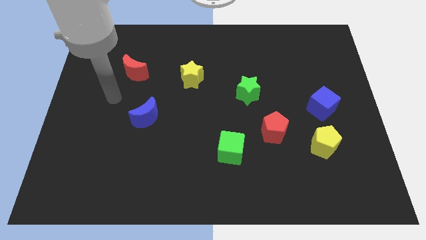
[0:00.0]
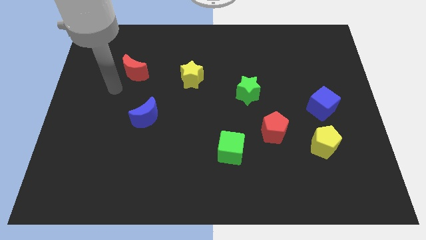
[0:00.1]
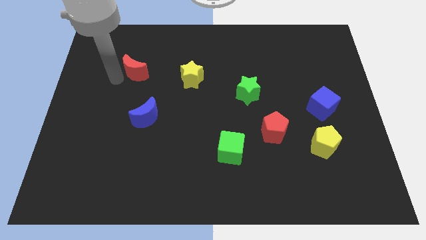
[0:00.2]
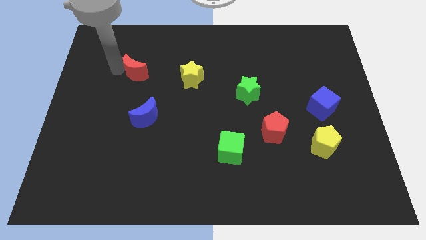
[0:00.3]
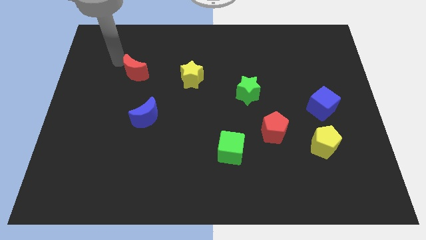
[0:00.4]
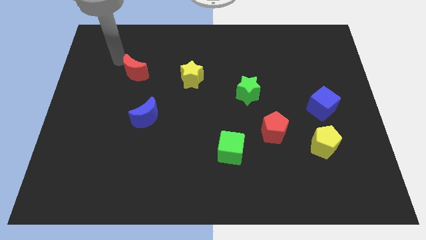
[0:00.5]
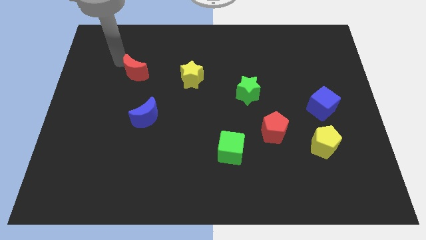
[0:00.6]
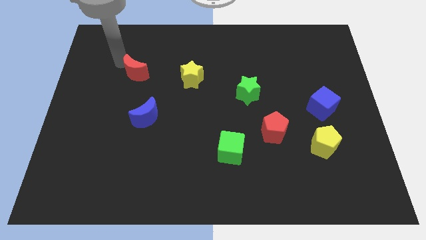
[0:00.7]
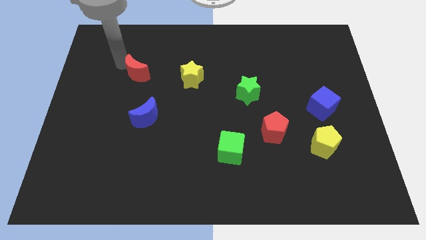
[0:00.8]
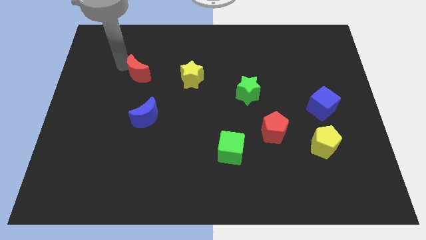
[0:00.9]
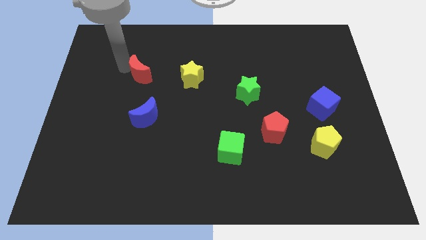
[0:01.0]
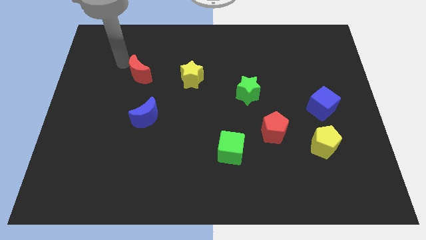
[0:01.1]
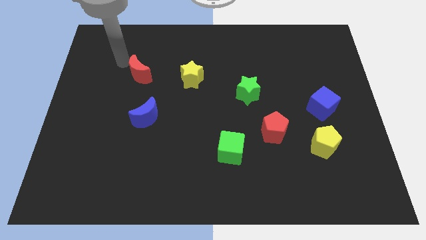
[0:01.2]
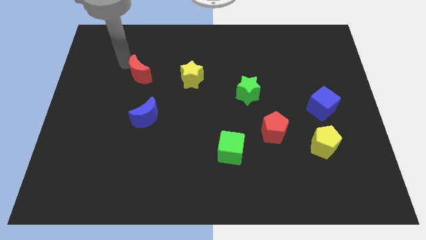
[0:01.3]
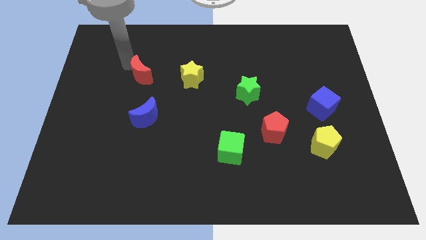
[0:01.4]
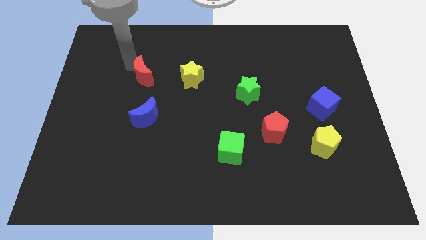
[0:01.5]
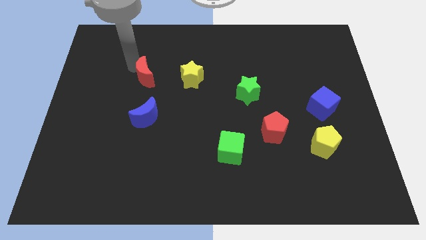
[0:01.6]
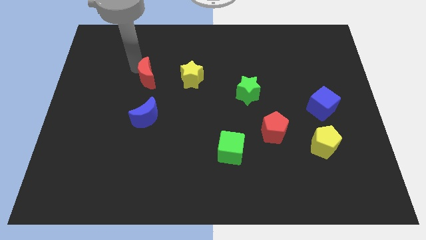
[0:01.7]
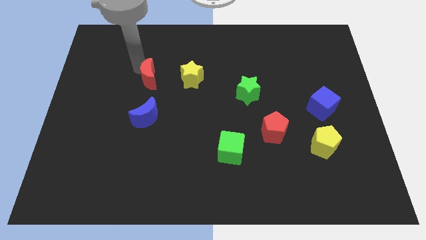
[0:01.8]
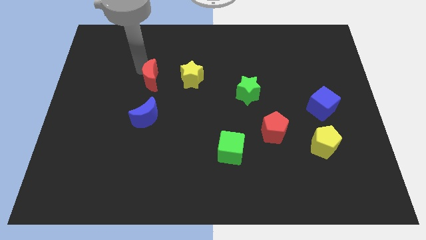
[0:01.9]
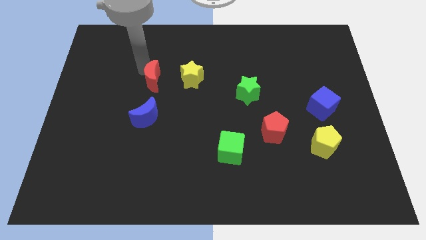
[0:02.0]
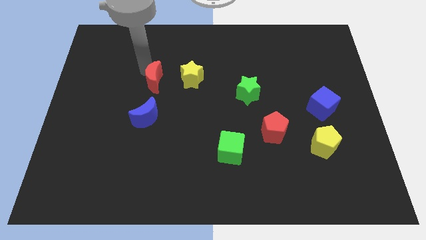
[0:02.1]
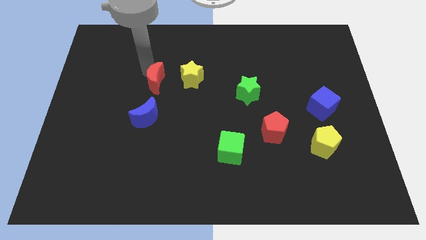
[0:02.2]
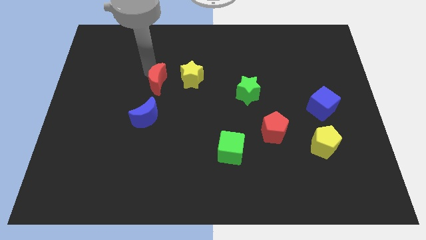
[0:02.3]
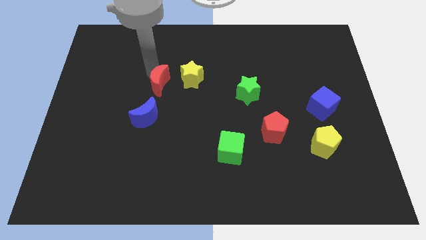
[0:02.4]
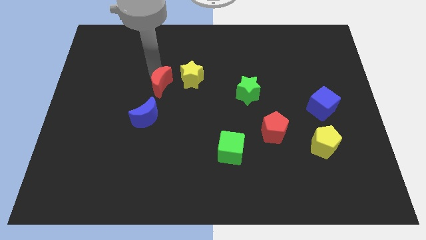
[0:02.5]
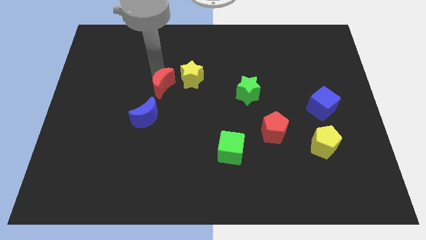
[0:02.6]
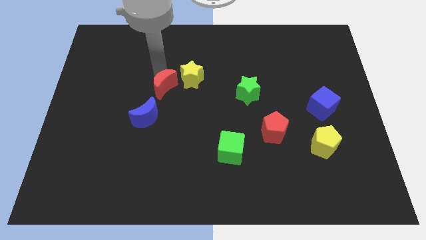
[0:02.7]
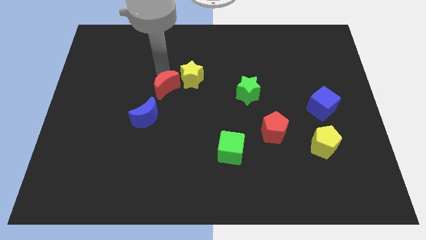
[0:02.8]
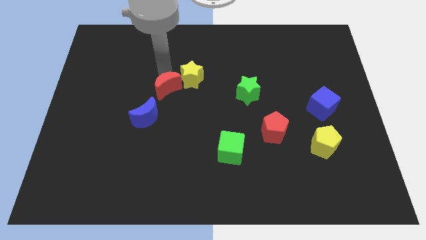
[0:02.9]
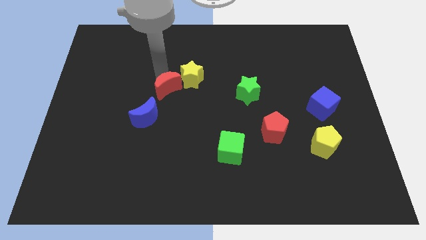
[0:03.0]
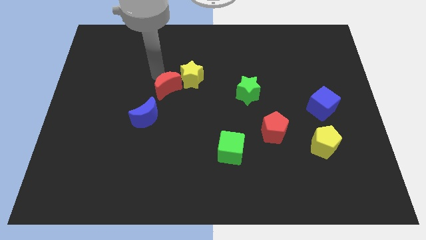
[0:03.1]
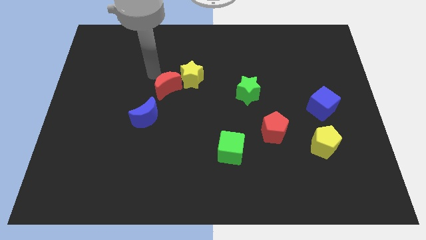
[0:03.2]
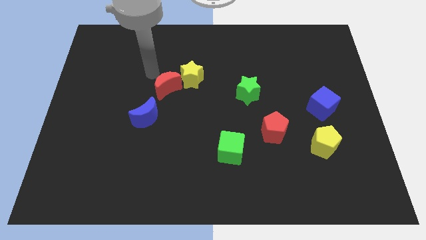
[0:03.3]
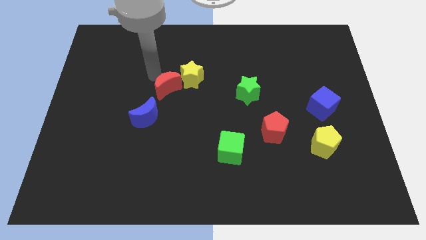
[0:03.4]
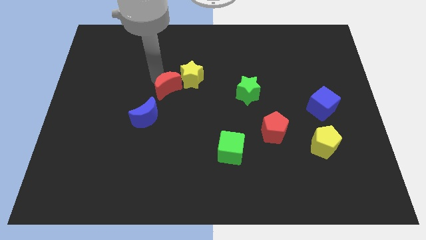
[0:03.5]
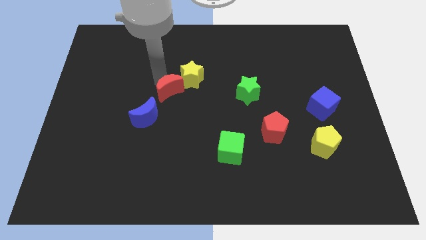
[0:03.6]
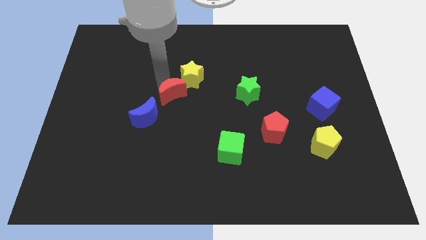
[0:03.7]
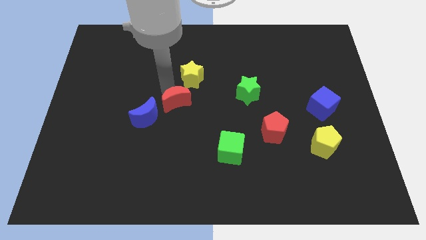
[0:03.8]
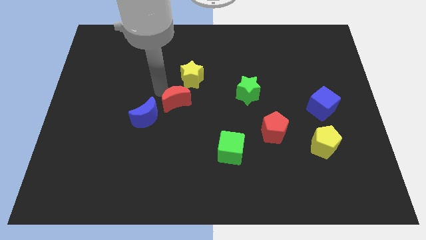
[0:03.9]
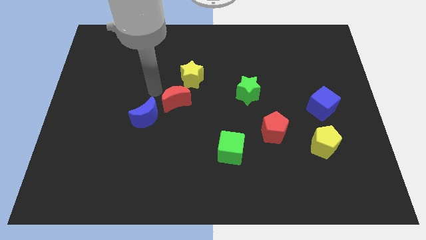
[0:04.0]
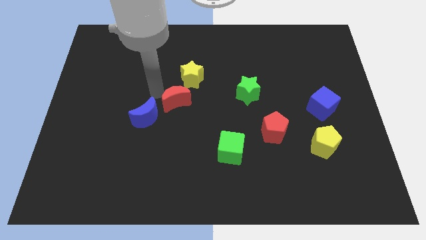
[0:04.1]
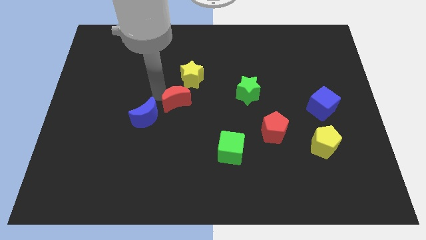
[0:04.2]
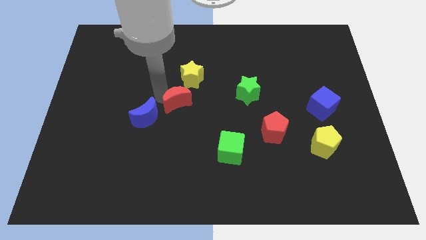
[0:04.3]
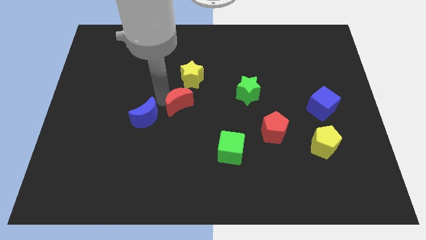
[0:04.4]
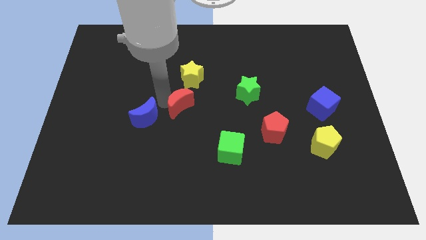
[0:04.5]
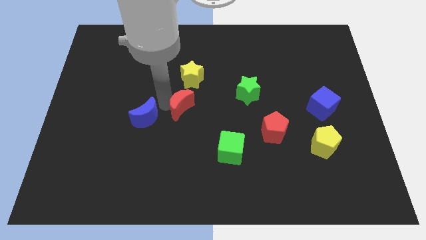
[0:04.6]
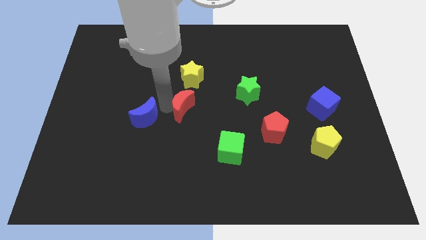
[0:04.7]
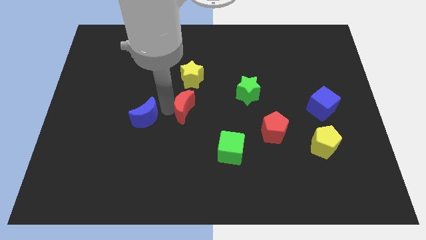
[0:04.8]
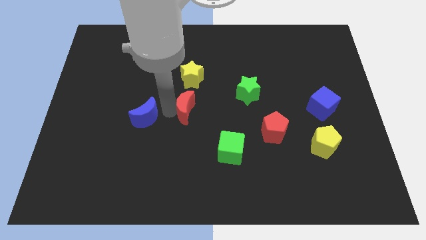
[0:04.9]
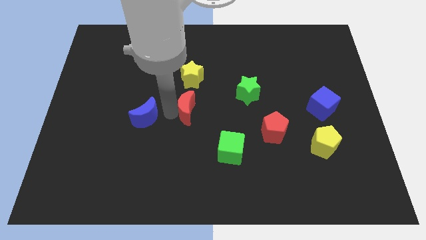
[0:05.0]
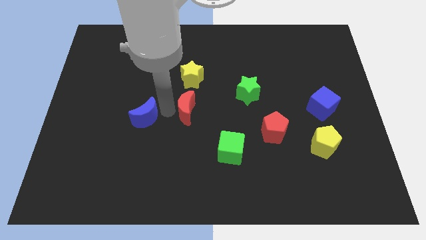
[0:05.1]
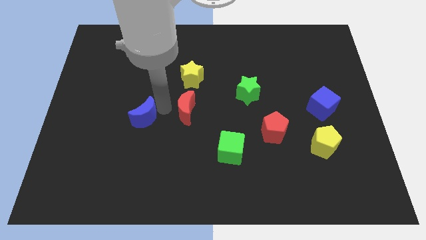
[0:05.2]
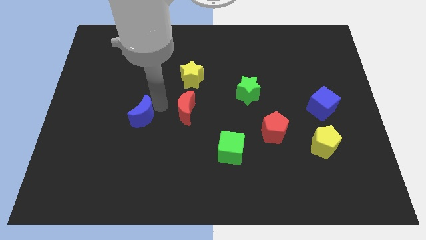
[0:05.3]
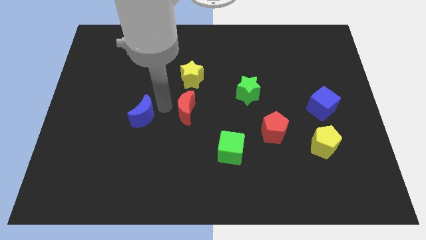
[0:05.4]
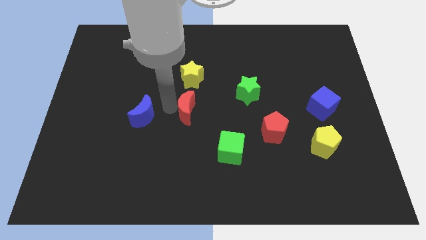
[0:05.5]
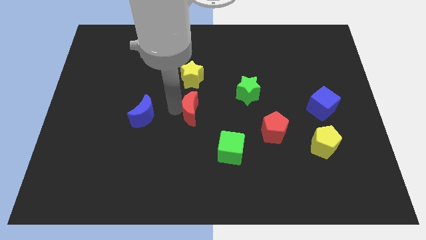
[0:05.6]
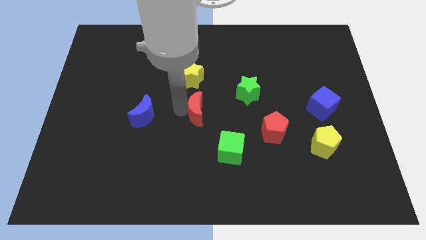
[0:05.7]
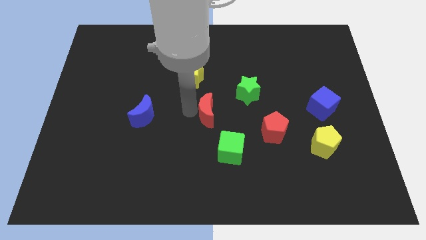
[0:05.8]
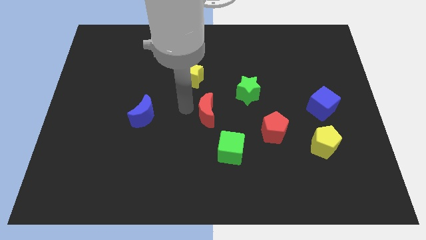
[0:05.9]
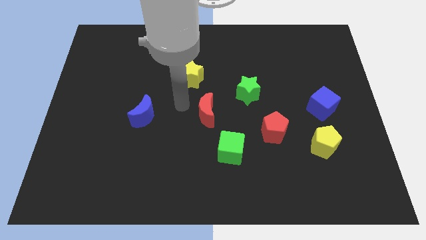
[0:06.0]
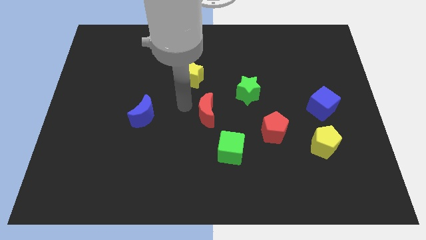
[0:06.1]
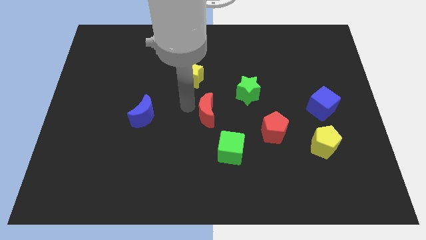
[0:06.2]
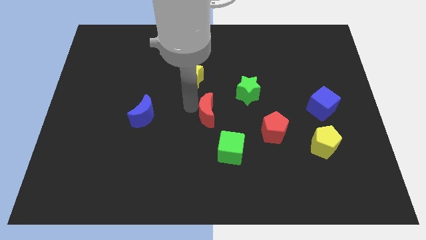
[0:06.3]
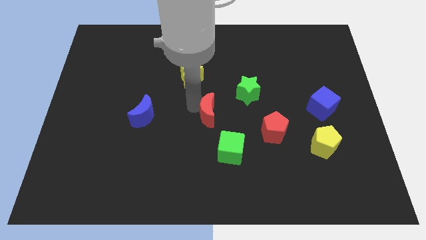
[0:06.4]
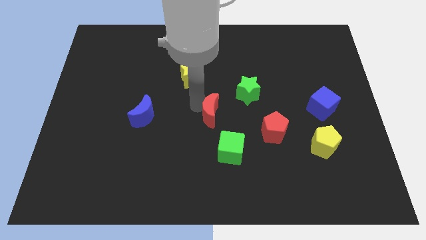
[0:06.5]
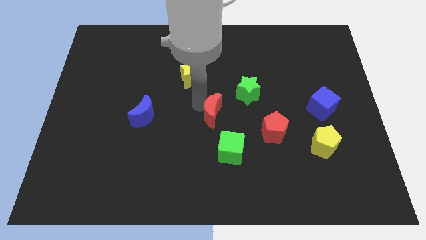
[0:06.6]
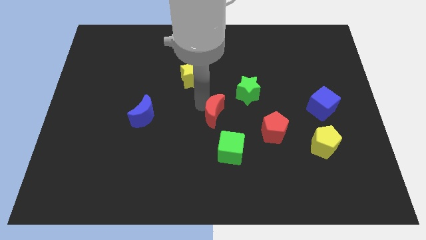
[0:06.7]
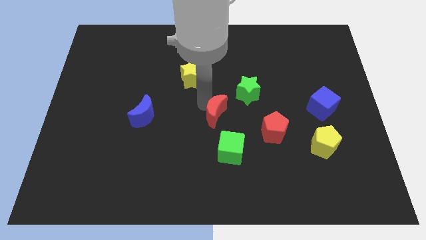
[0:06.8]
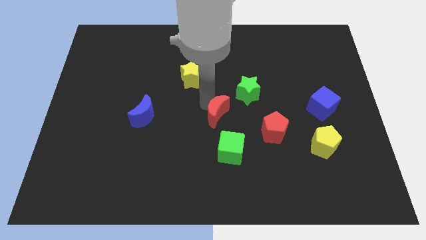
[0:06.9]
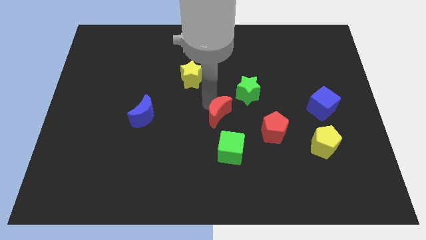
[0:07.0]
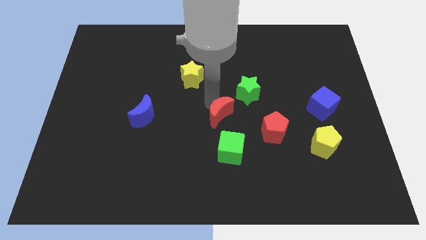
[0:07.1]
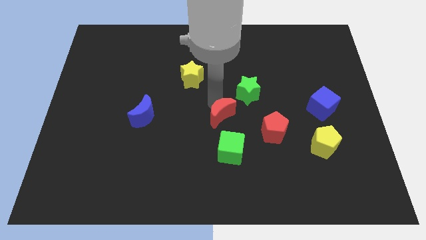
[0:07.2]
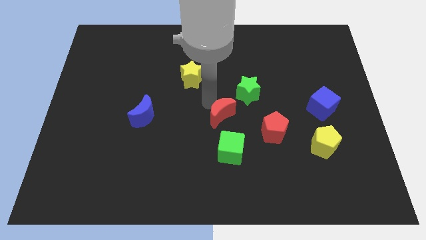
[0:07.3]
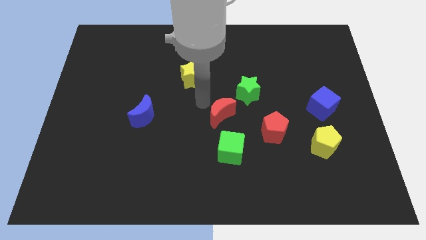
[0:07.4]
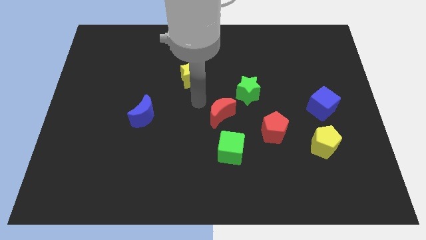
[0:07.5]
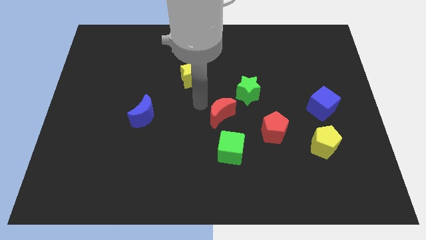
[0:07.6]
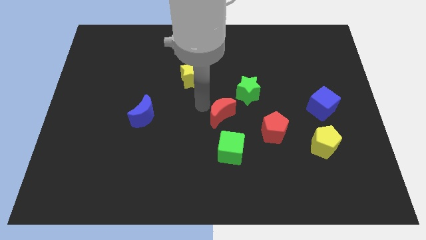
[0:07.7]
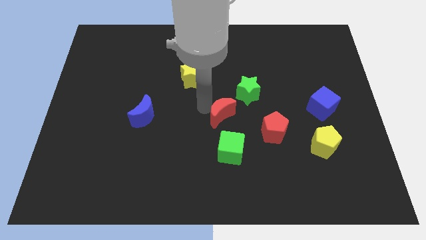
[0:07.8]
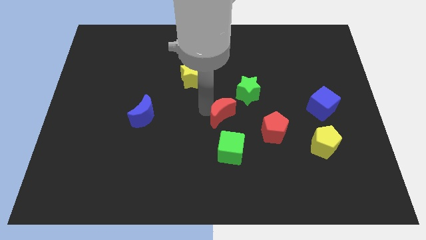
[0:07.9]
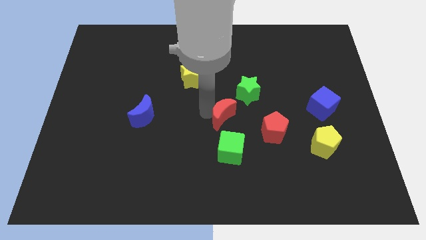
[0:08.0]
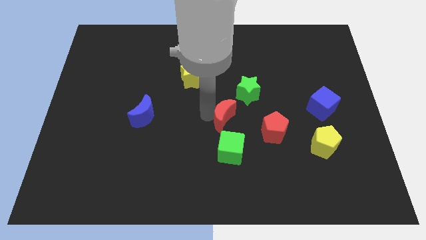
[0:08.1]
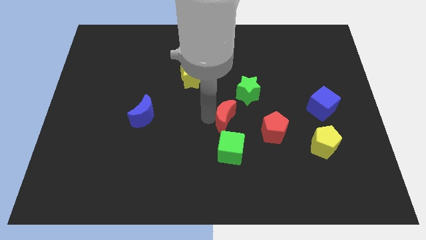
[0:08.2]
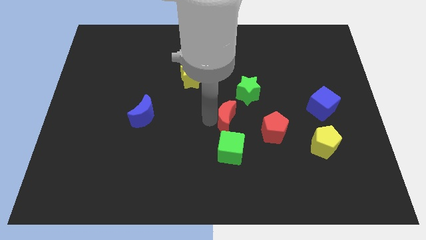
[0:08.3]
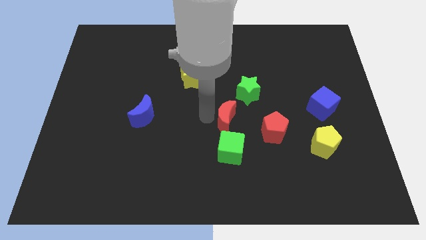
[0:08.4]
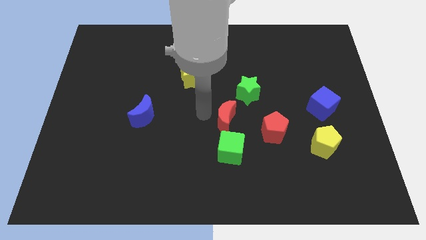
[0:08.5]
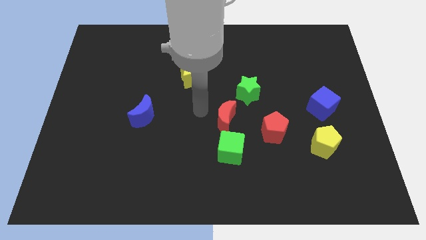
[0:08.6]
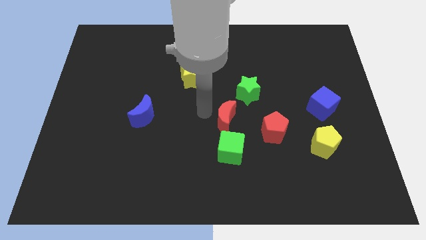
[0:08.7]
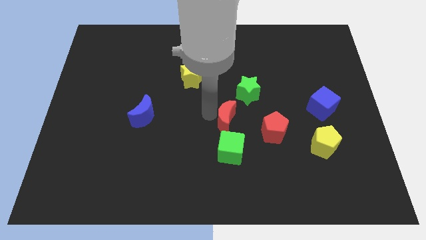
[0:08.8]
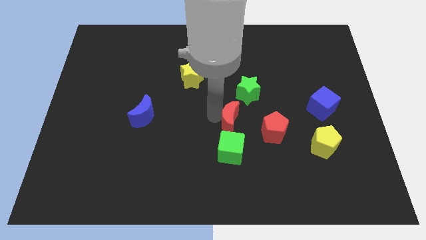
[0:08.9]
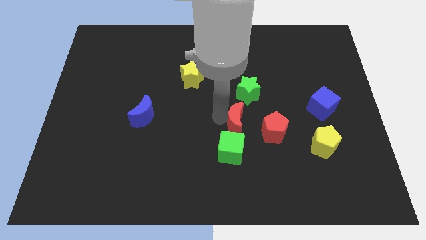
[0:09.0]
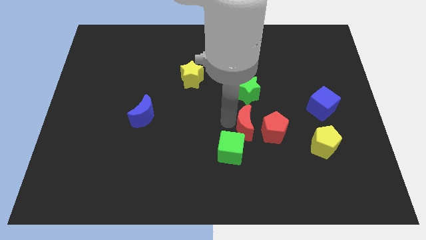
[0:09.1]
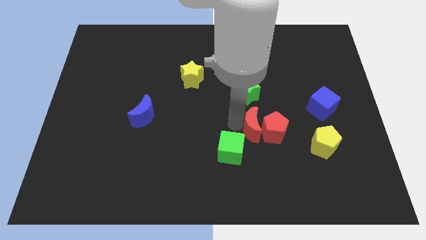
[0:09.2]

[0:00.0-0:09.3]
slide the red moon towards the red pentagon
